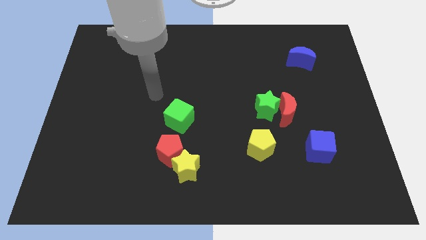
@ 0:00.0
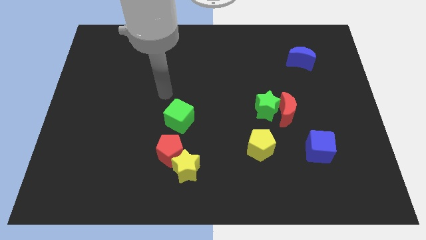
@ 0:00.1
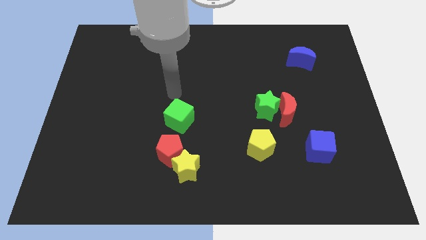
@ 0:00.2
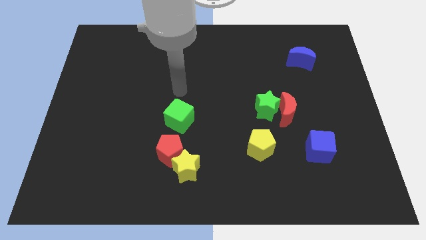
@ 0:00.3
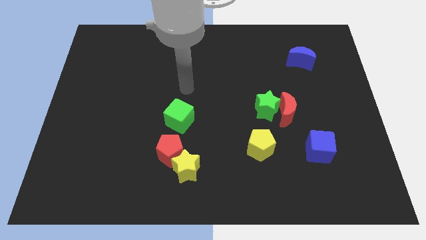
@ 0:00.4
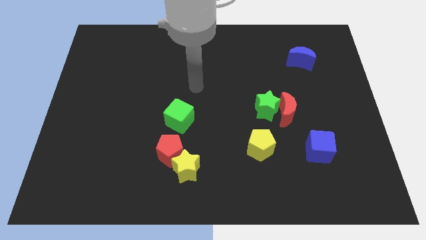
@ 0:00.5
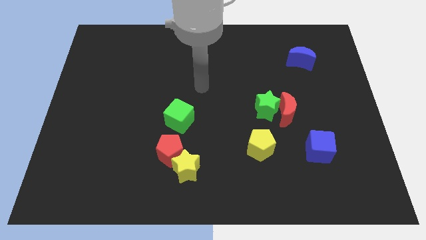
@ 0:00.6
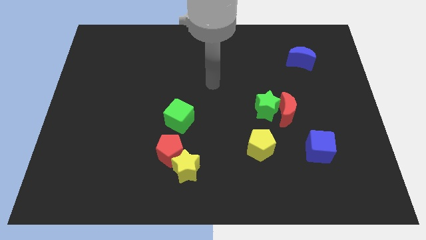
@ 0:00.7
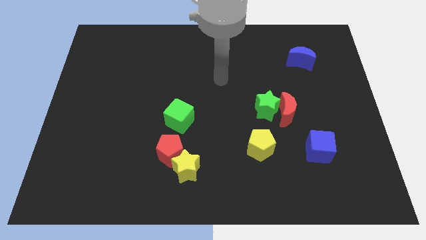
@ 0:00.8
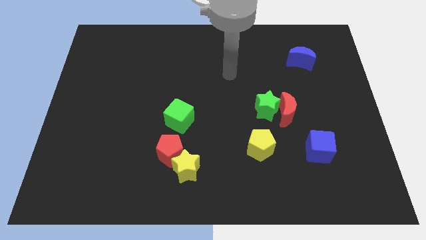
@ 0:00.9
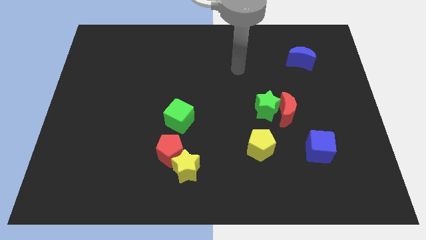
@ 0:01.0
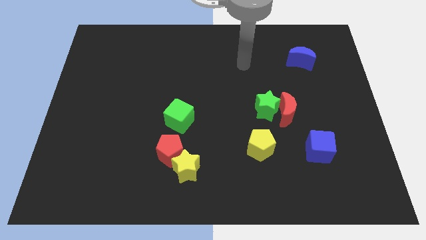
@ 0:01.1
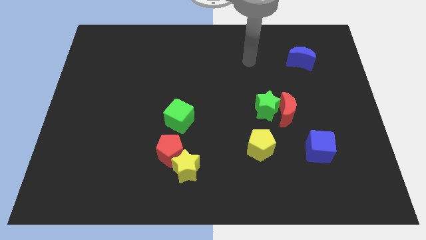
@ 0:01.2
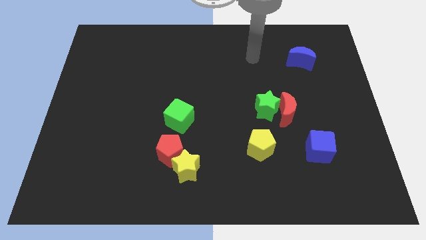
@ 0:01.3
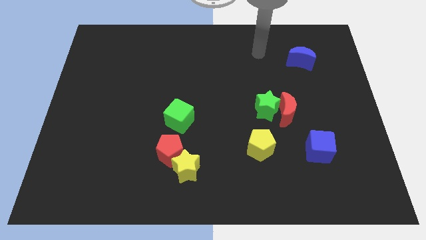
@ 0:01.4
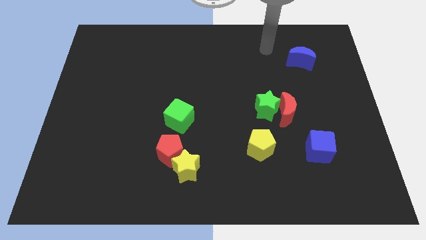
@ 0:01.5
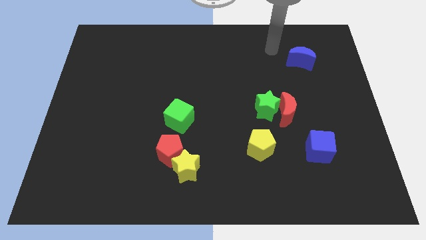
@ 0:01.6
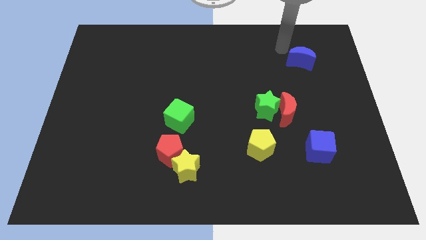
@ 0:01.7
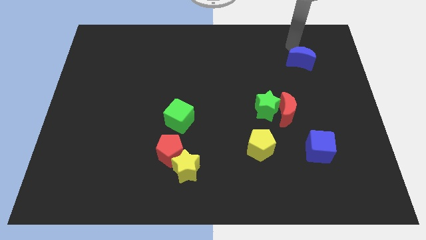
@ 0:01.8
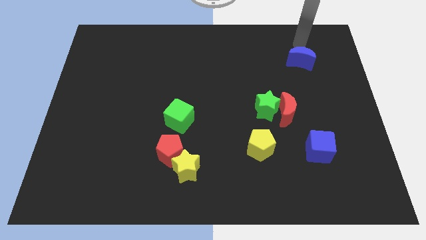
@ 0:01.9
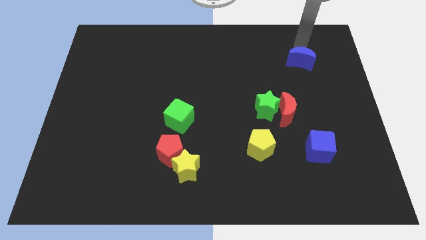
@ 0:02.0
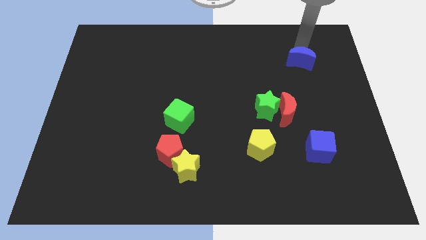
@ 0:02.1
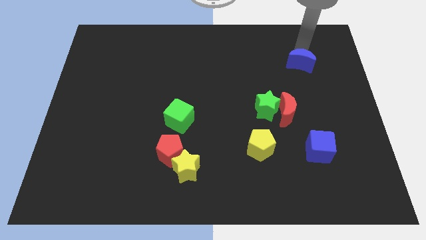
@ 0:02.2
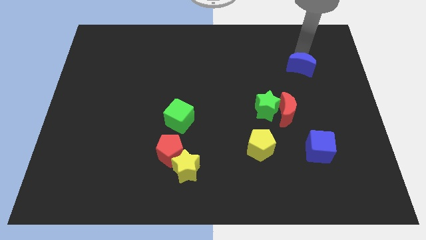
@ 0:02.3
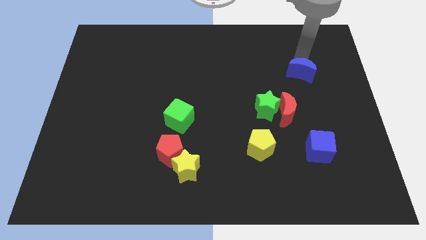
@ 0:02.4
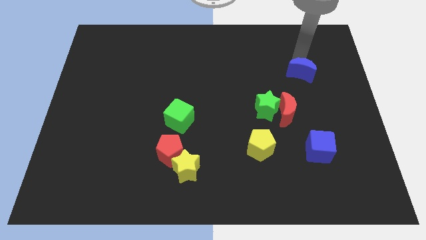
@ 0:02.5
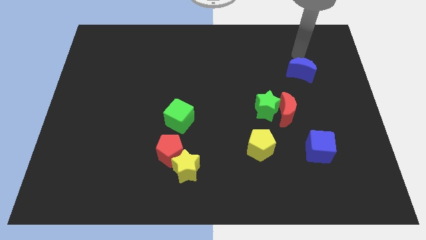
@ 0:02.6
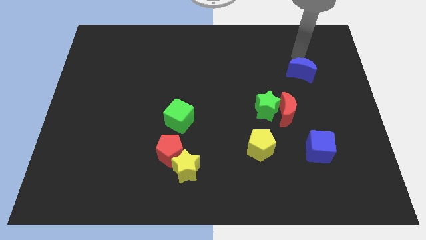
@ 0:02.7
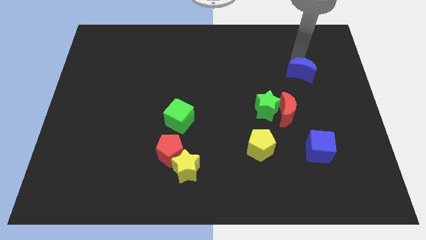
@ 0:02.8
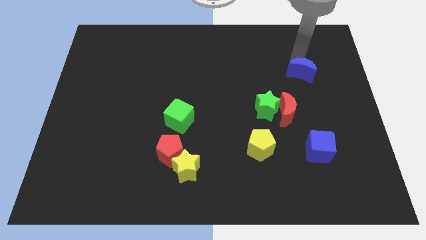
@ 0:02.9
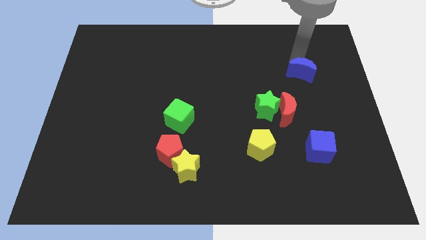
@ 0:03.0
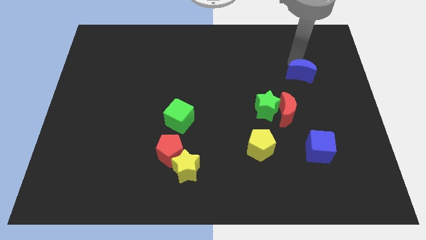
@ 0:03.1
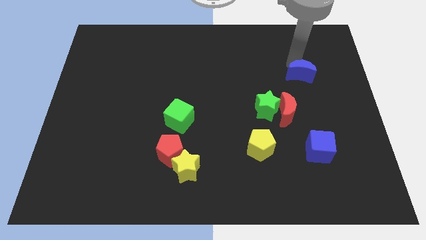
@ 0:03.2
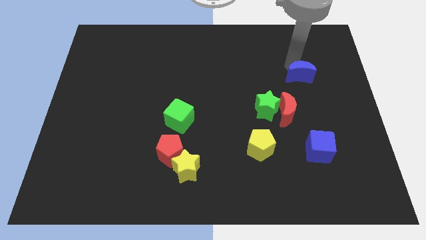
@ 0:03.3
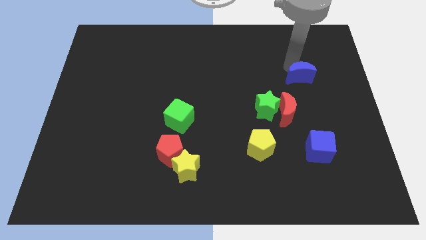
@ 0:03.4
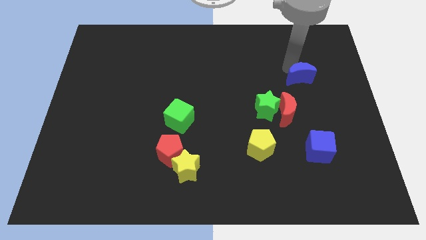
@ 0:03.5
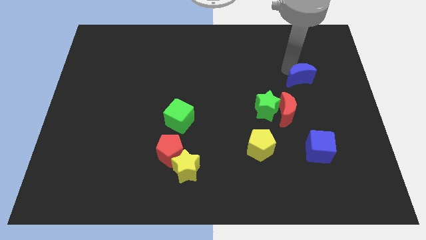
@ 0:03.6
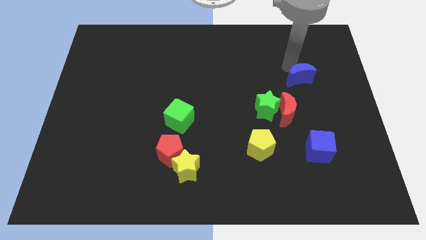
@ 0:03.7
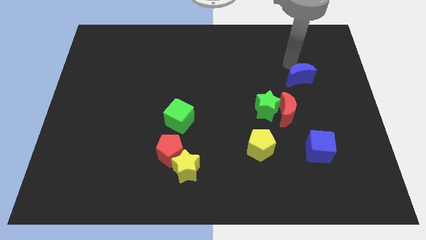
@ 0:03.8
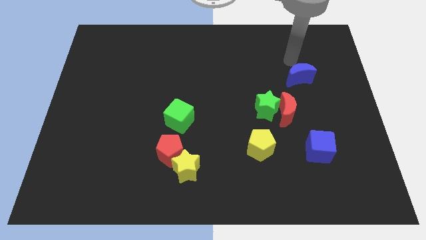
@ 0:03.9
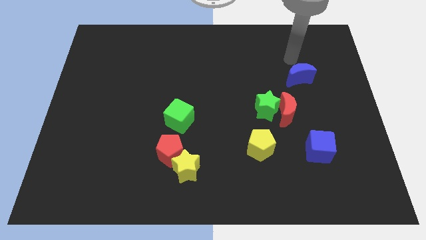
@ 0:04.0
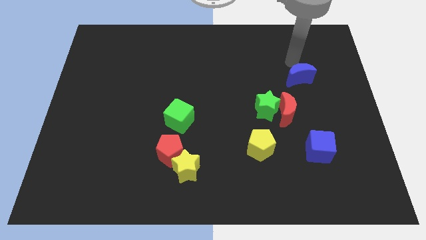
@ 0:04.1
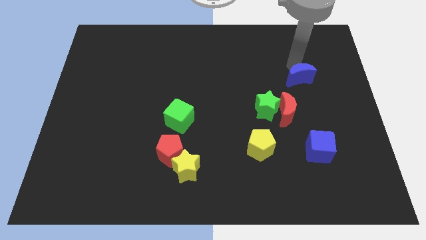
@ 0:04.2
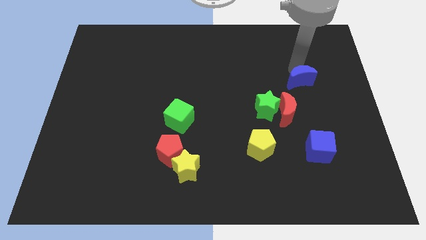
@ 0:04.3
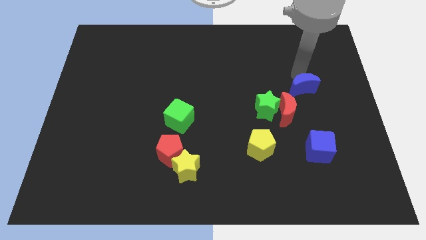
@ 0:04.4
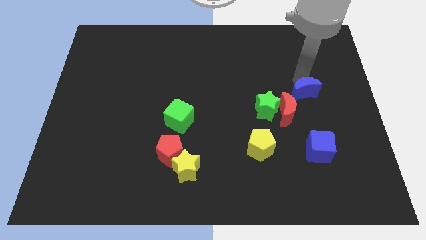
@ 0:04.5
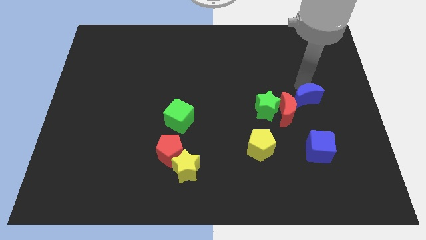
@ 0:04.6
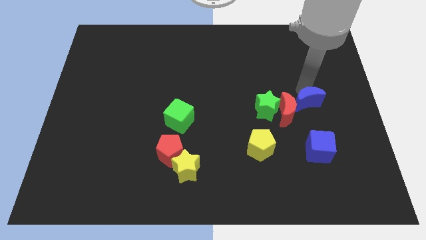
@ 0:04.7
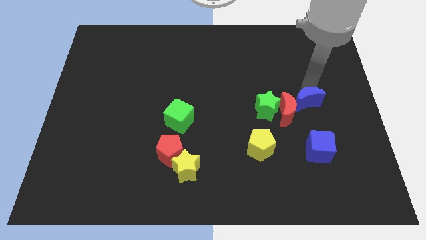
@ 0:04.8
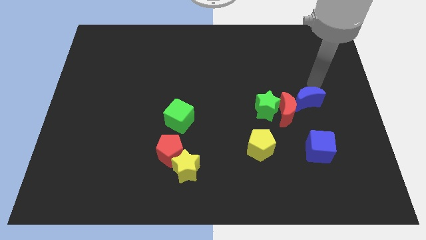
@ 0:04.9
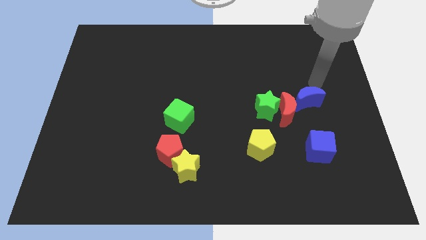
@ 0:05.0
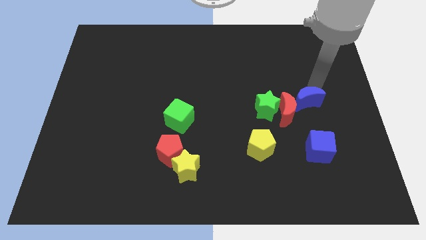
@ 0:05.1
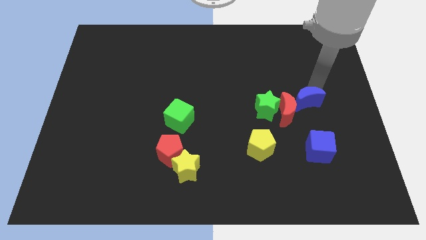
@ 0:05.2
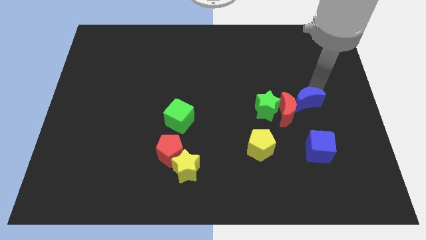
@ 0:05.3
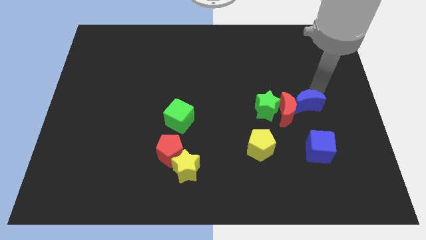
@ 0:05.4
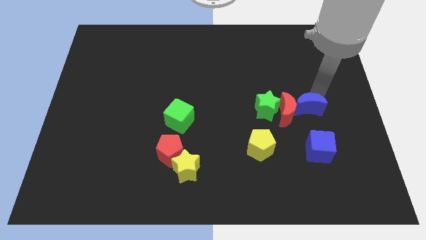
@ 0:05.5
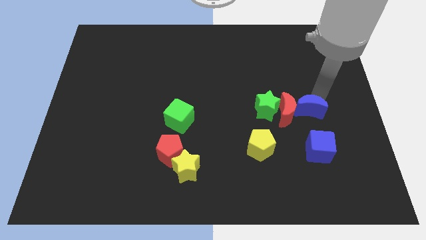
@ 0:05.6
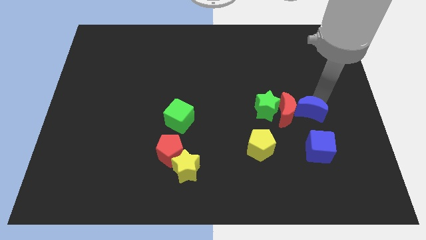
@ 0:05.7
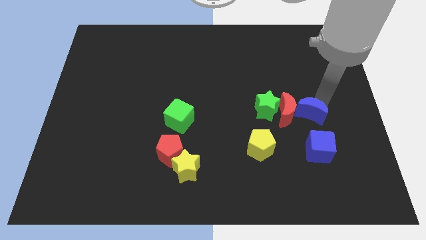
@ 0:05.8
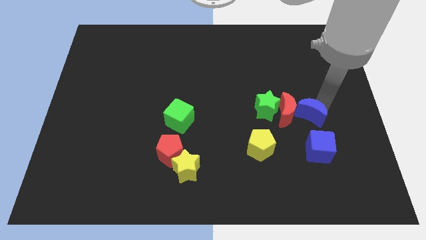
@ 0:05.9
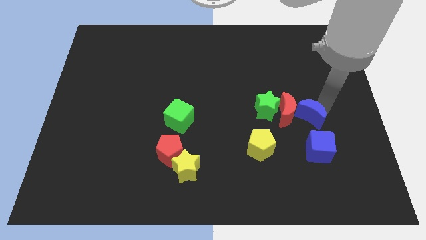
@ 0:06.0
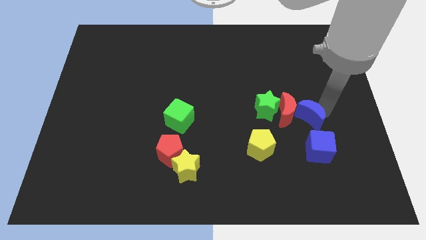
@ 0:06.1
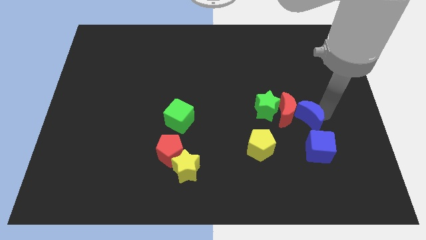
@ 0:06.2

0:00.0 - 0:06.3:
put the blue moon to the bottom right of the green star

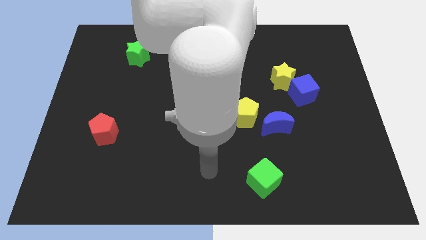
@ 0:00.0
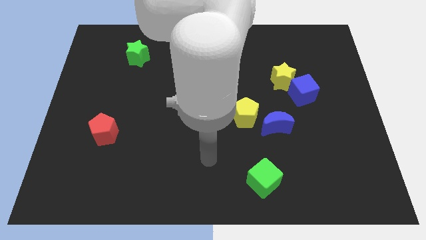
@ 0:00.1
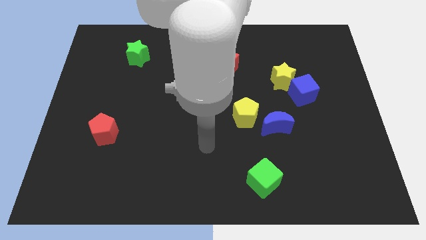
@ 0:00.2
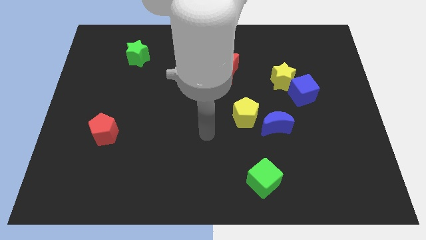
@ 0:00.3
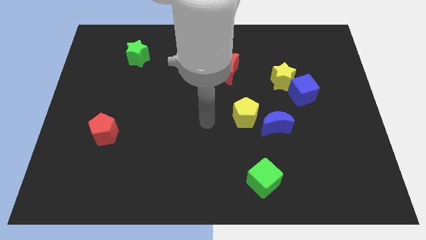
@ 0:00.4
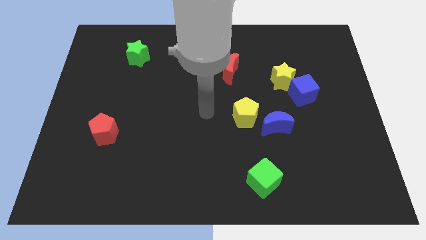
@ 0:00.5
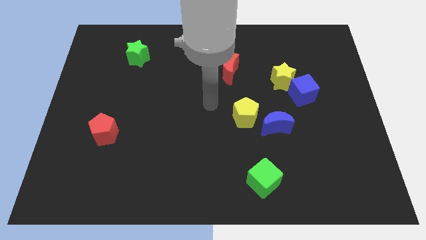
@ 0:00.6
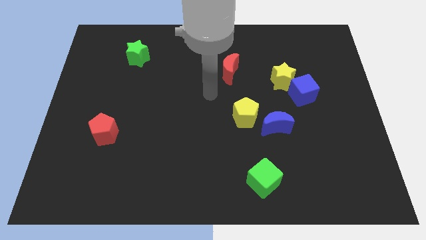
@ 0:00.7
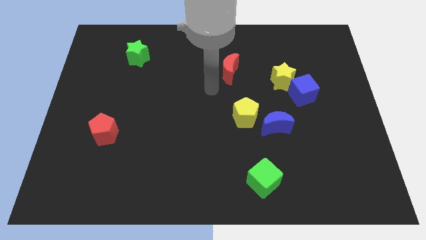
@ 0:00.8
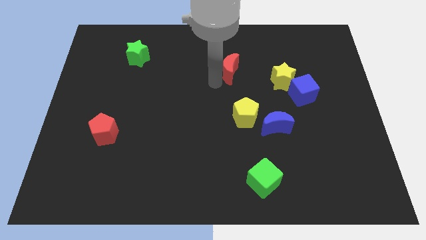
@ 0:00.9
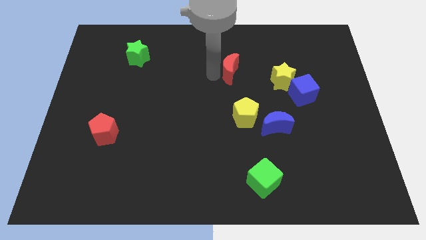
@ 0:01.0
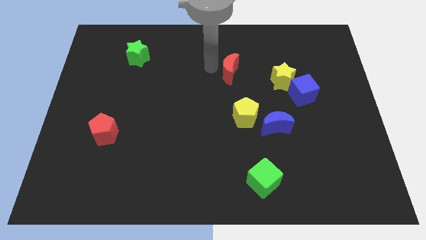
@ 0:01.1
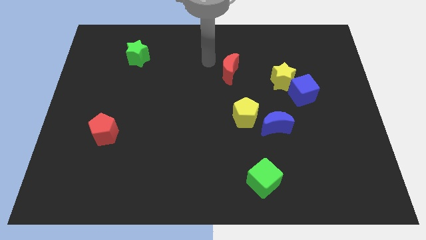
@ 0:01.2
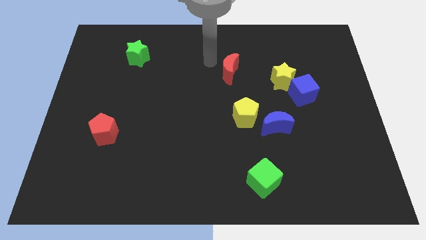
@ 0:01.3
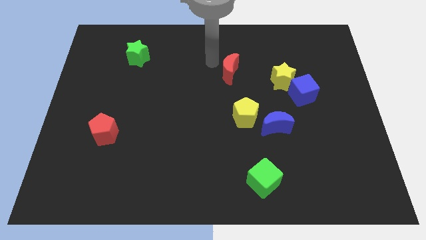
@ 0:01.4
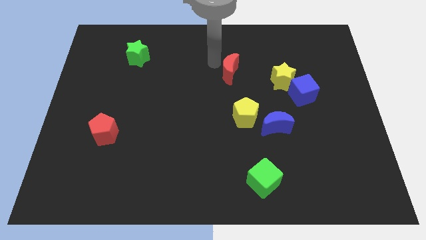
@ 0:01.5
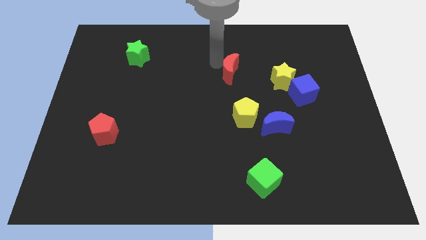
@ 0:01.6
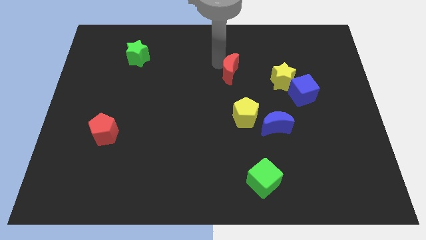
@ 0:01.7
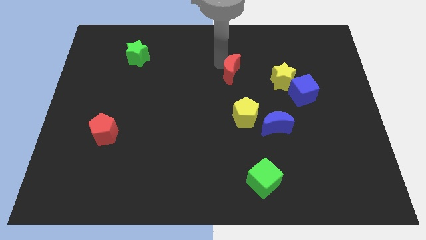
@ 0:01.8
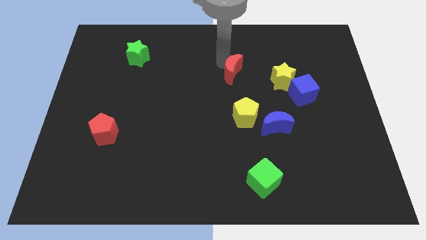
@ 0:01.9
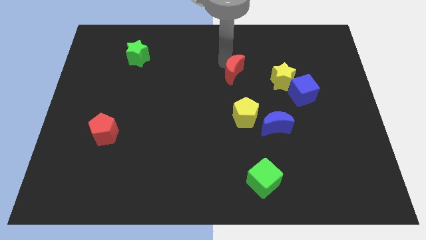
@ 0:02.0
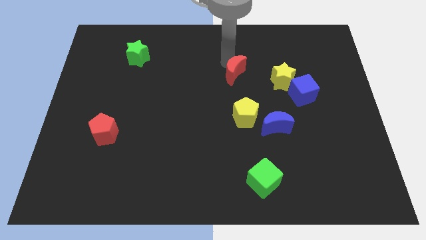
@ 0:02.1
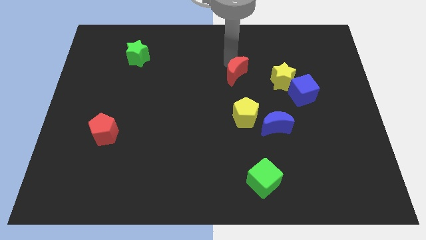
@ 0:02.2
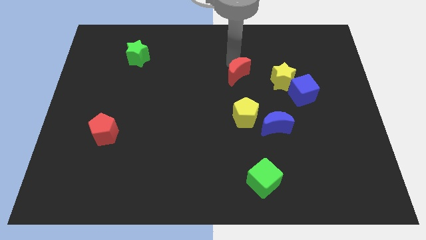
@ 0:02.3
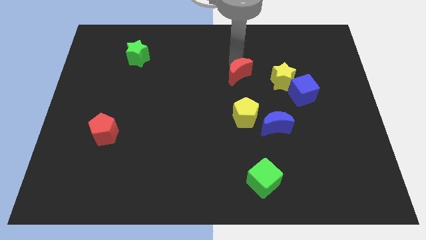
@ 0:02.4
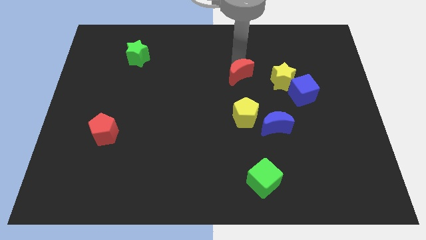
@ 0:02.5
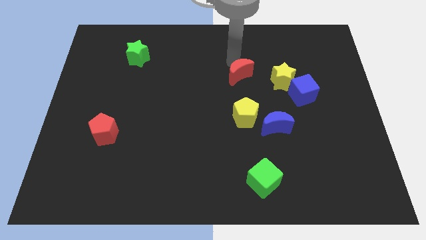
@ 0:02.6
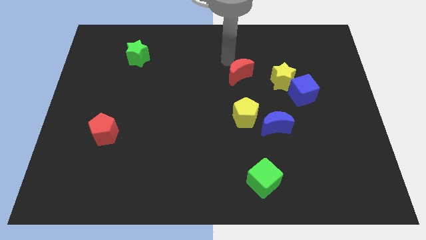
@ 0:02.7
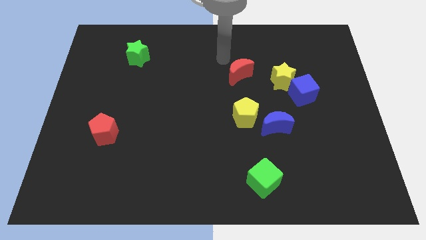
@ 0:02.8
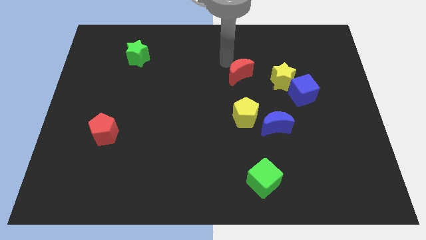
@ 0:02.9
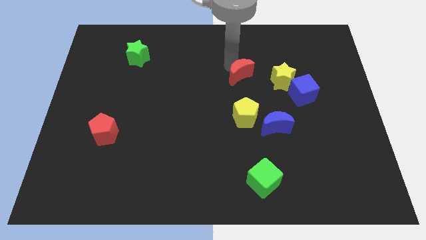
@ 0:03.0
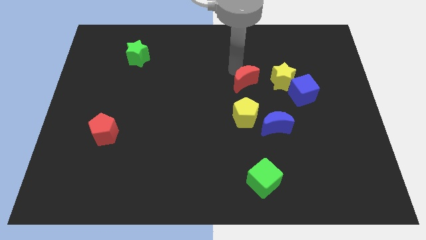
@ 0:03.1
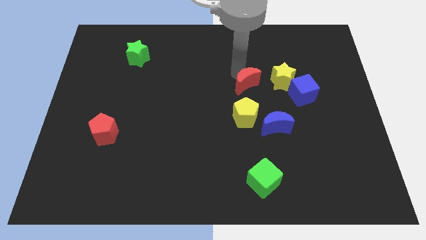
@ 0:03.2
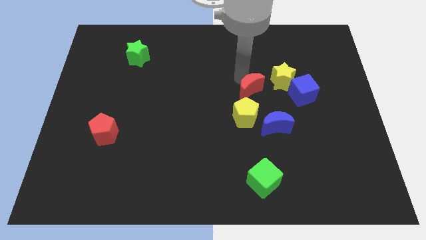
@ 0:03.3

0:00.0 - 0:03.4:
put the red moon to the top right side of the yellow pentagon
